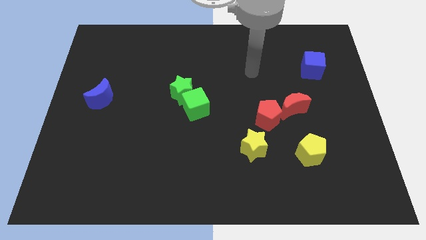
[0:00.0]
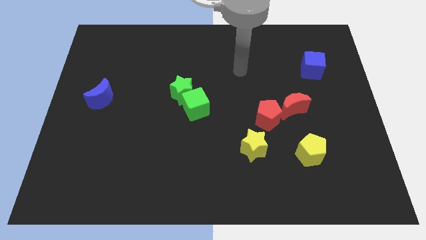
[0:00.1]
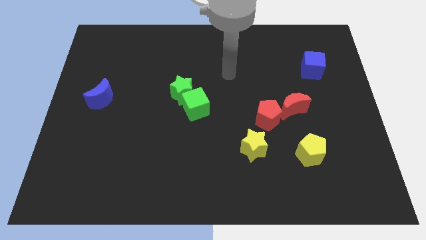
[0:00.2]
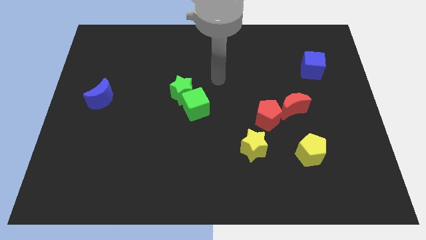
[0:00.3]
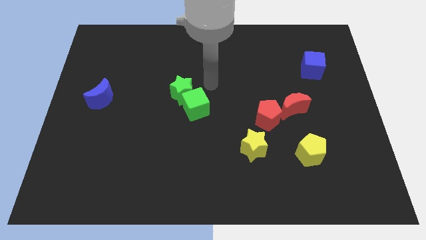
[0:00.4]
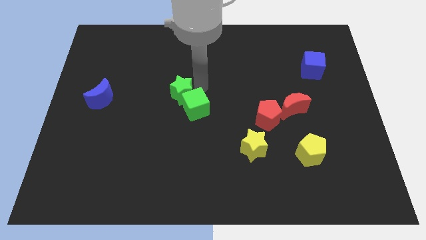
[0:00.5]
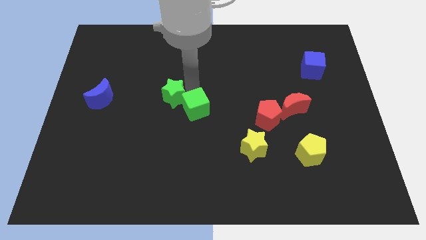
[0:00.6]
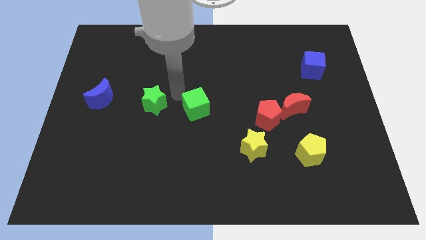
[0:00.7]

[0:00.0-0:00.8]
pull the green cube apart from the green star

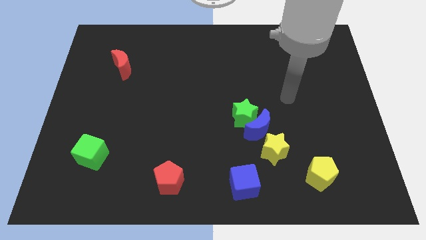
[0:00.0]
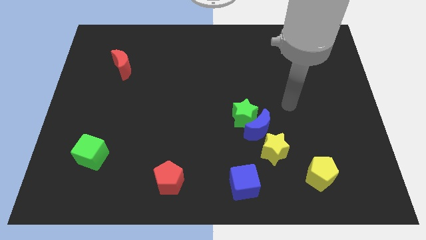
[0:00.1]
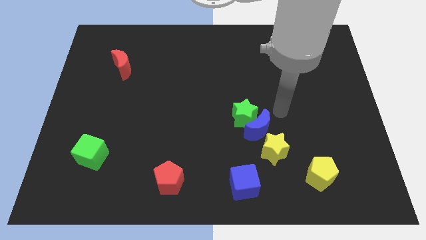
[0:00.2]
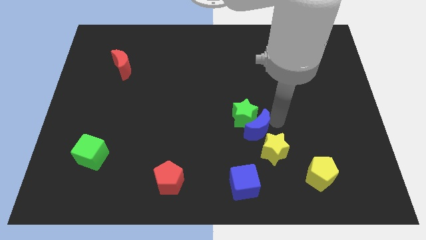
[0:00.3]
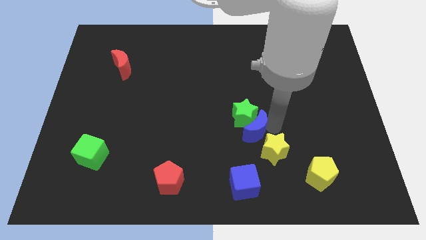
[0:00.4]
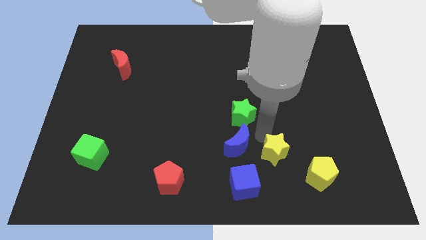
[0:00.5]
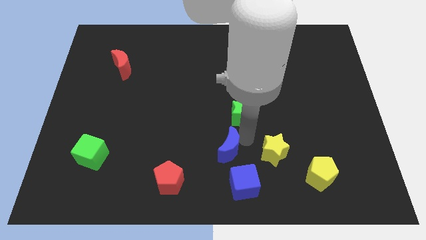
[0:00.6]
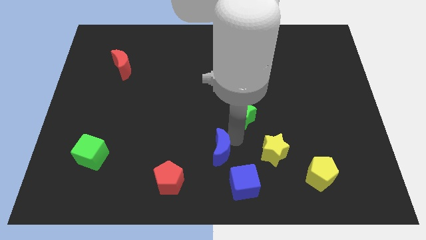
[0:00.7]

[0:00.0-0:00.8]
move the green star away from the blue moon

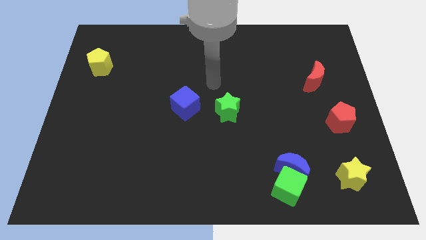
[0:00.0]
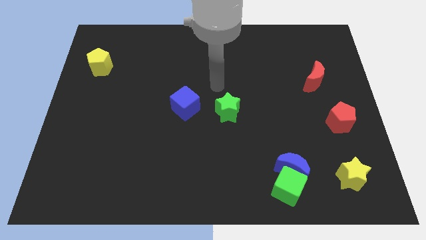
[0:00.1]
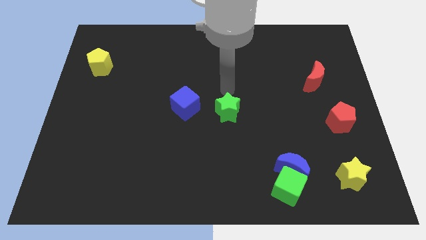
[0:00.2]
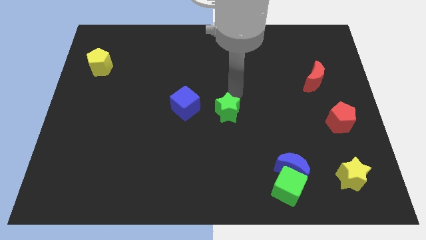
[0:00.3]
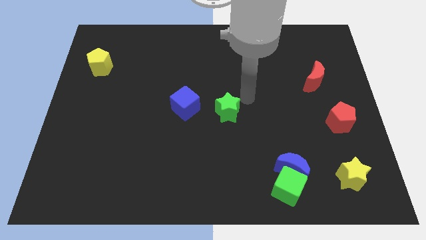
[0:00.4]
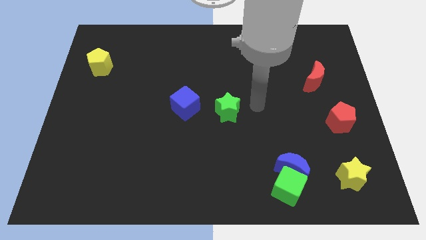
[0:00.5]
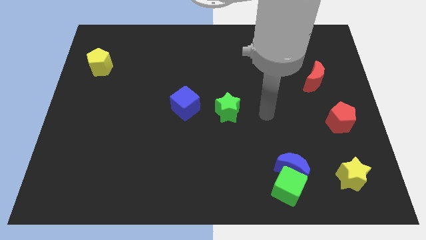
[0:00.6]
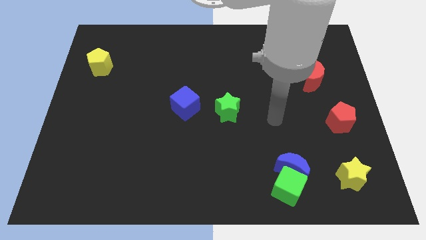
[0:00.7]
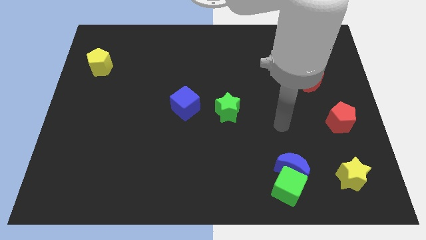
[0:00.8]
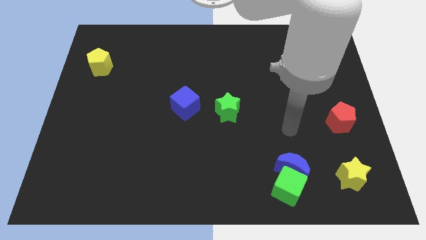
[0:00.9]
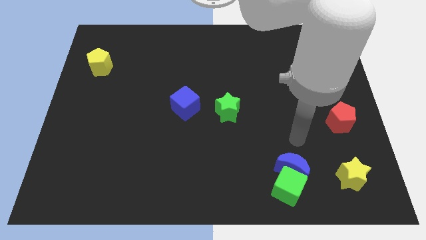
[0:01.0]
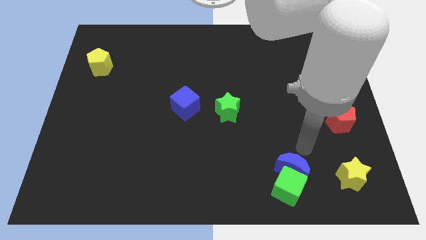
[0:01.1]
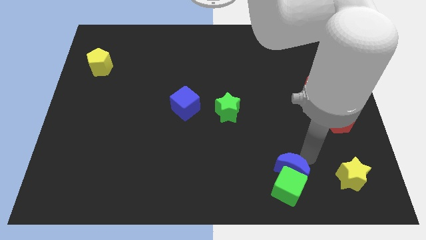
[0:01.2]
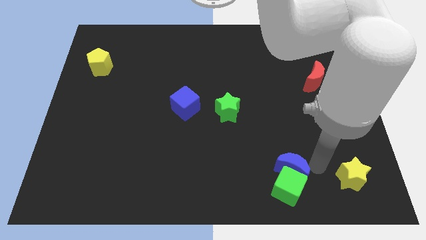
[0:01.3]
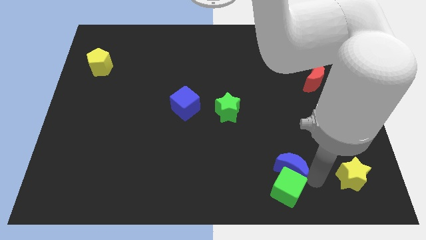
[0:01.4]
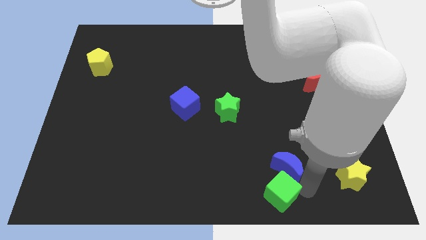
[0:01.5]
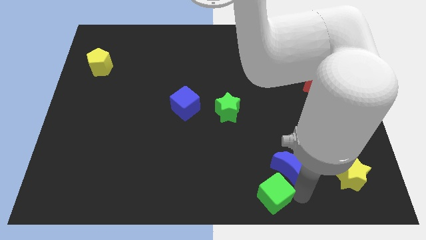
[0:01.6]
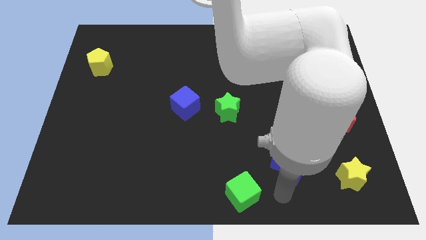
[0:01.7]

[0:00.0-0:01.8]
move the blue moon away from the green cube

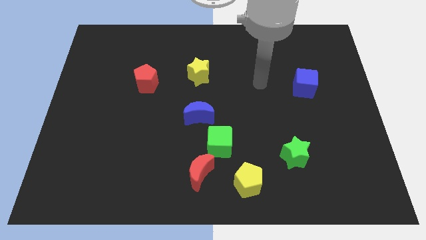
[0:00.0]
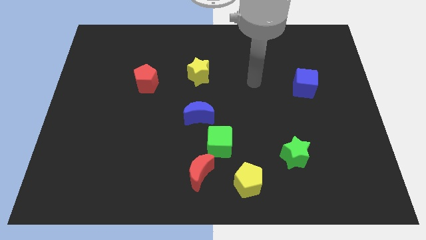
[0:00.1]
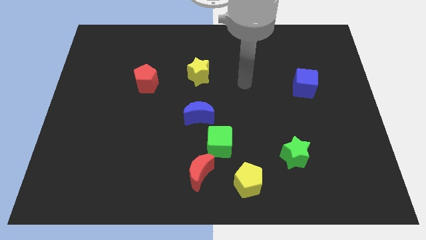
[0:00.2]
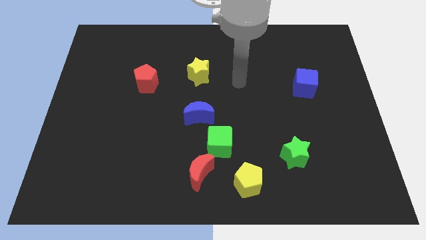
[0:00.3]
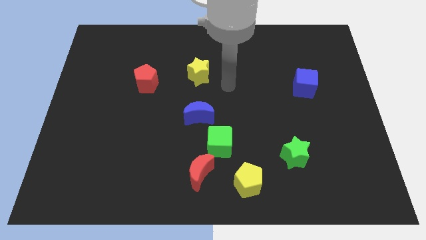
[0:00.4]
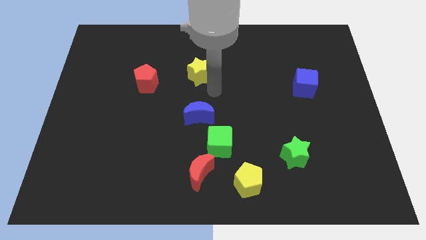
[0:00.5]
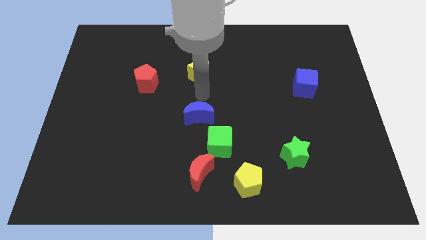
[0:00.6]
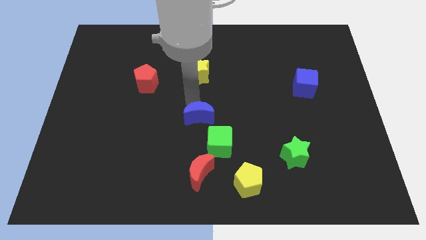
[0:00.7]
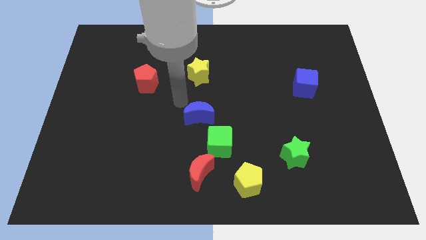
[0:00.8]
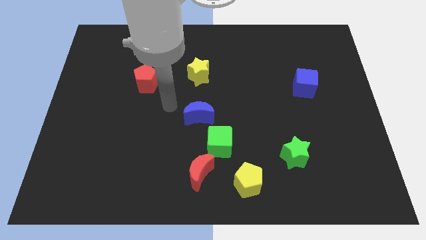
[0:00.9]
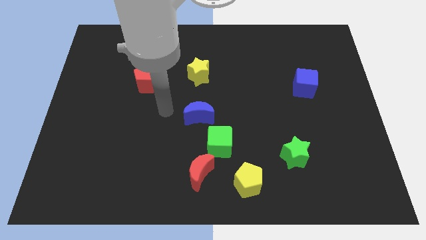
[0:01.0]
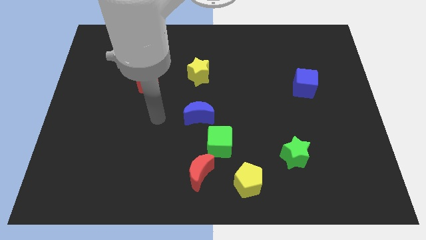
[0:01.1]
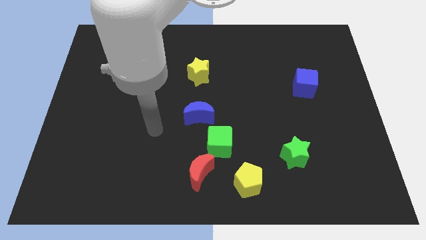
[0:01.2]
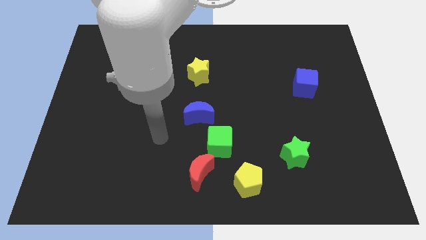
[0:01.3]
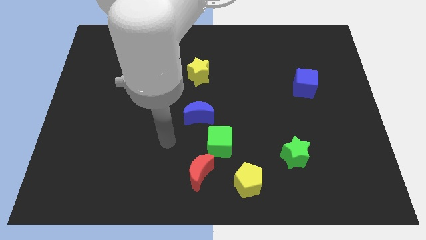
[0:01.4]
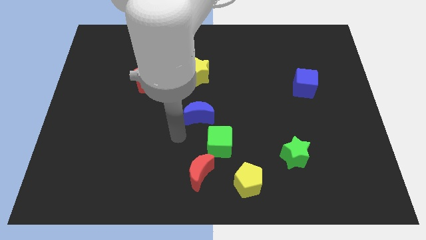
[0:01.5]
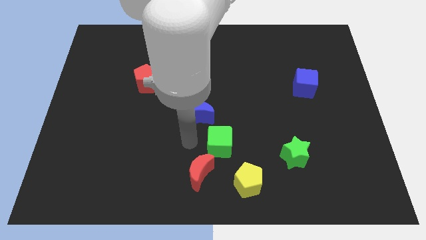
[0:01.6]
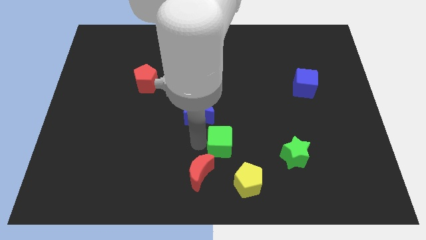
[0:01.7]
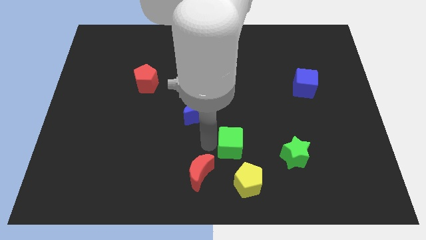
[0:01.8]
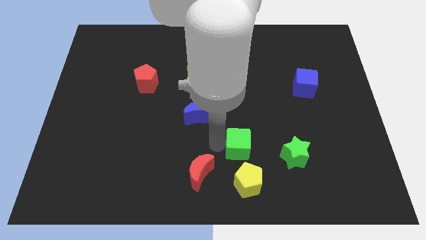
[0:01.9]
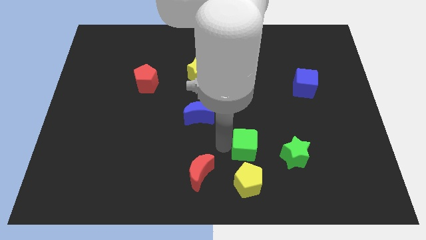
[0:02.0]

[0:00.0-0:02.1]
separate the green cube from the red moon and blue moon

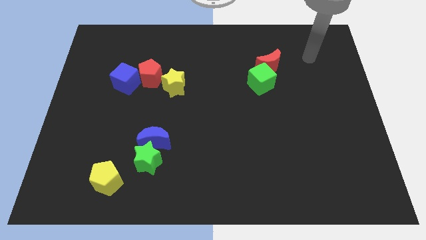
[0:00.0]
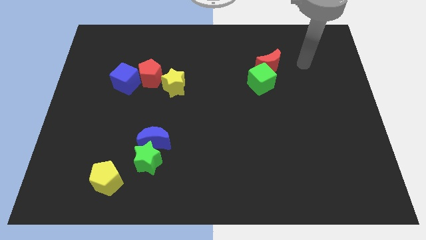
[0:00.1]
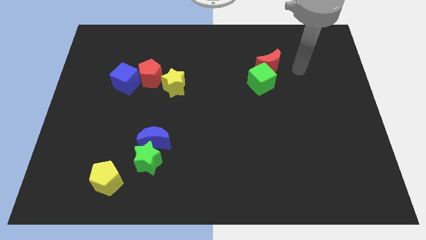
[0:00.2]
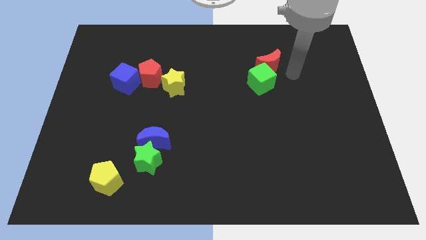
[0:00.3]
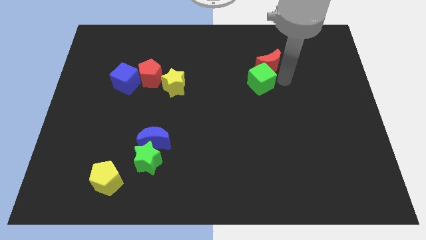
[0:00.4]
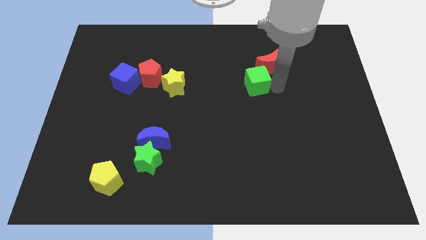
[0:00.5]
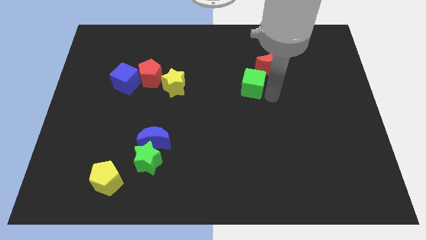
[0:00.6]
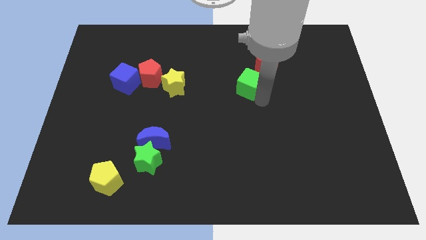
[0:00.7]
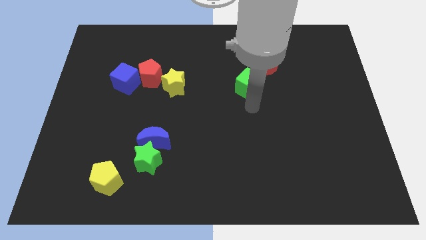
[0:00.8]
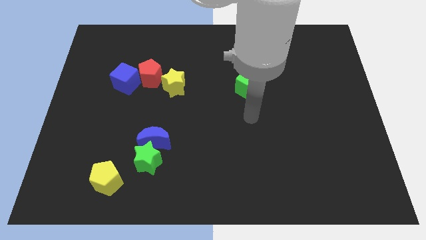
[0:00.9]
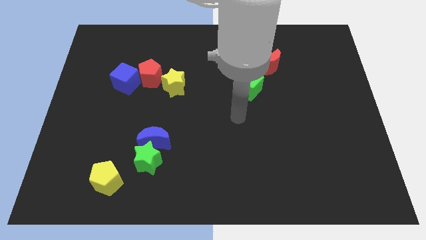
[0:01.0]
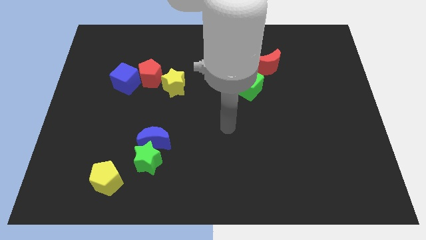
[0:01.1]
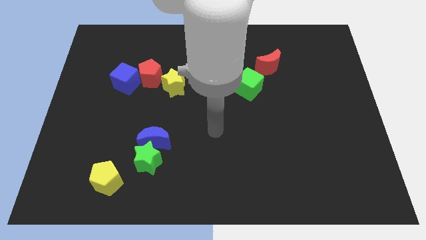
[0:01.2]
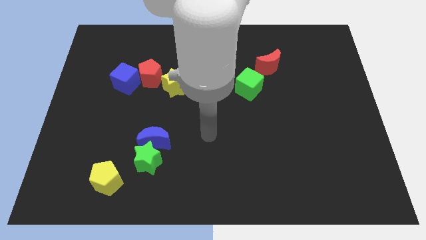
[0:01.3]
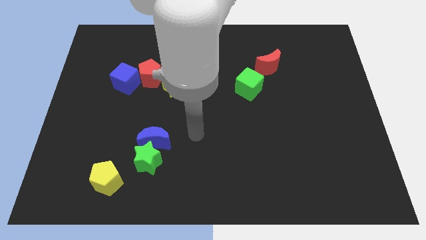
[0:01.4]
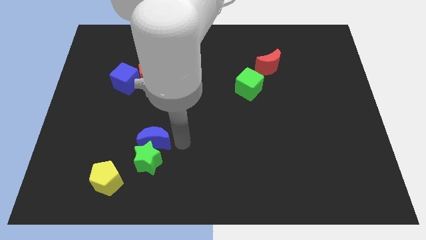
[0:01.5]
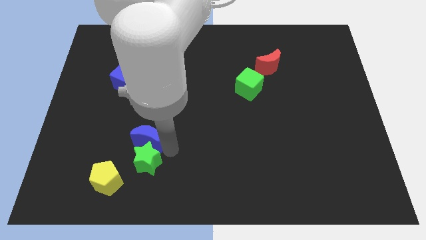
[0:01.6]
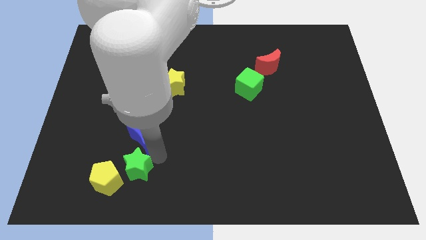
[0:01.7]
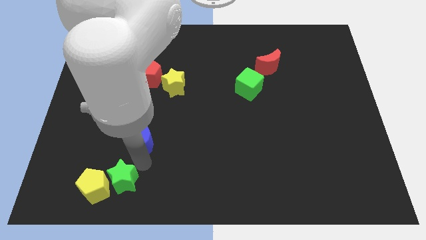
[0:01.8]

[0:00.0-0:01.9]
move the blue moon away from the green star

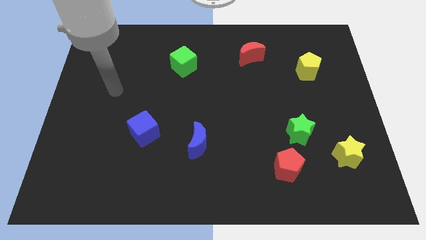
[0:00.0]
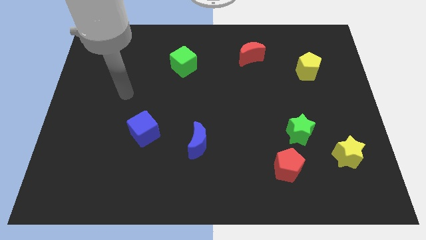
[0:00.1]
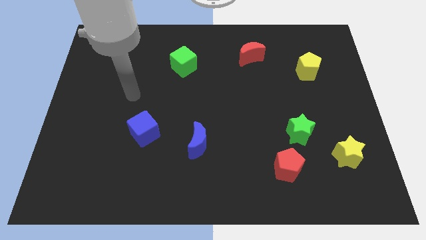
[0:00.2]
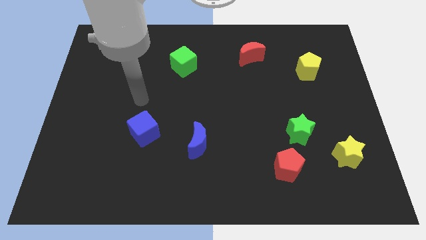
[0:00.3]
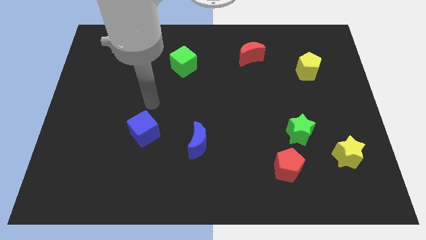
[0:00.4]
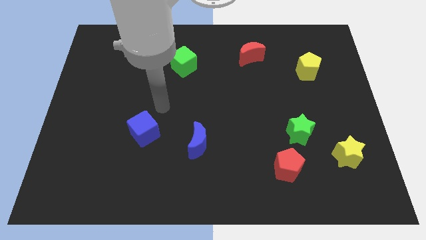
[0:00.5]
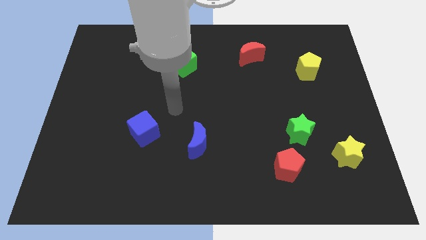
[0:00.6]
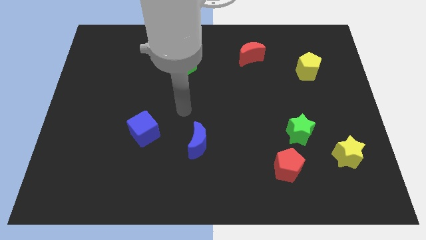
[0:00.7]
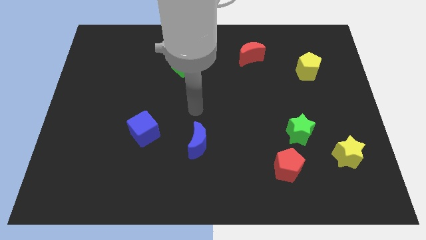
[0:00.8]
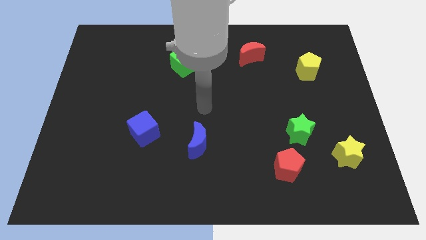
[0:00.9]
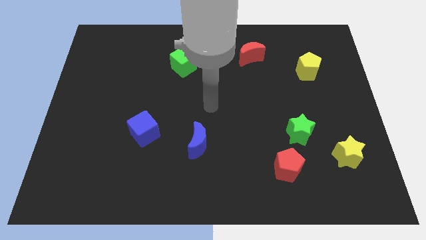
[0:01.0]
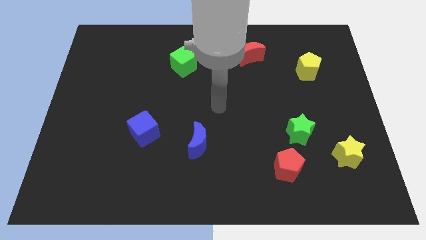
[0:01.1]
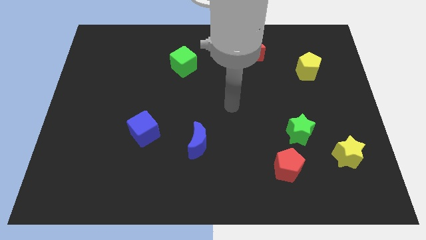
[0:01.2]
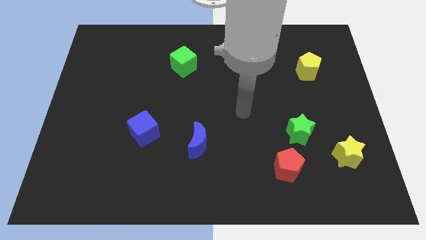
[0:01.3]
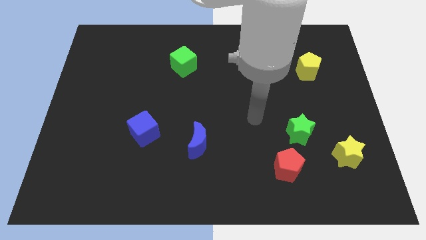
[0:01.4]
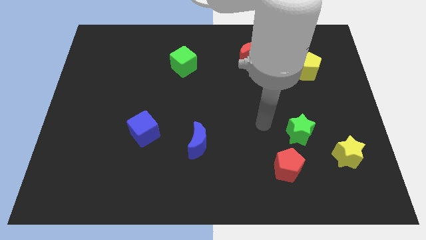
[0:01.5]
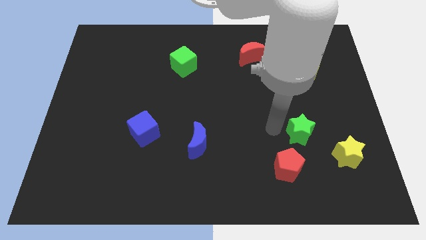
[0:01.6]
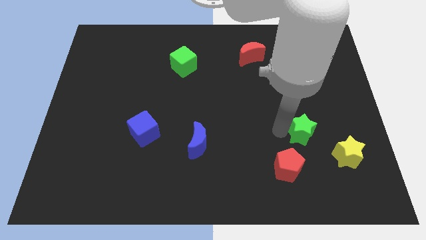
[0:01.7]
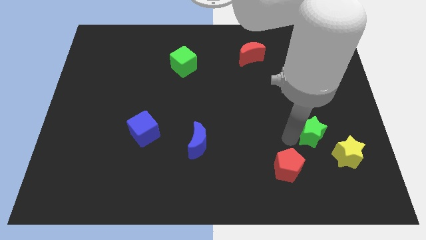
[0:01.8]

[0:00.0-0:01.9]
pull the red pentagon apart from the green star
